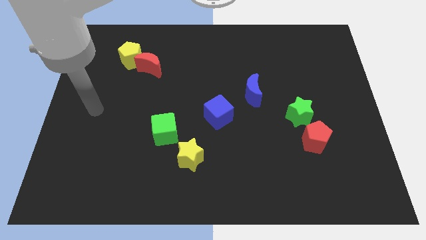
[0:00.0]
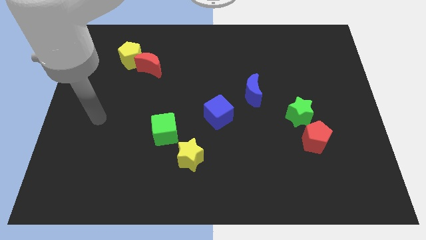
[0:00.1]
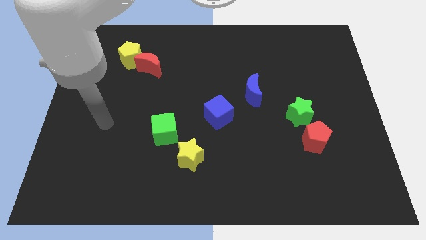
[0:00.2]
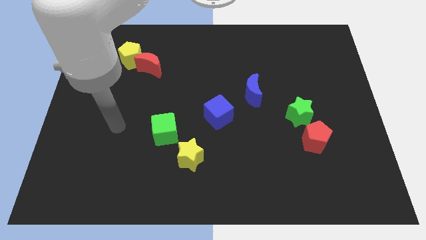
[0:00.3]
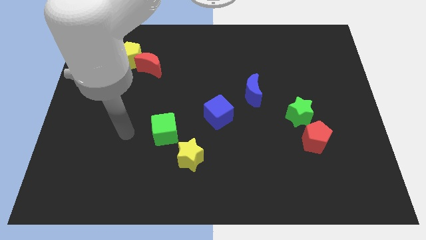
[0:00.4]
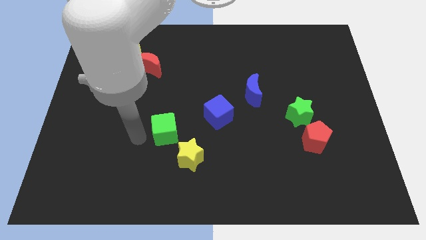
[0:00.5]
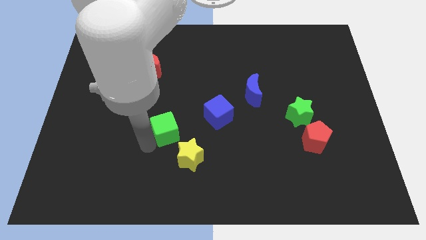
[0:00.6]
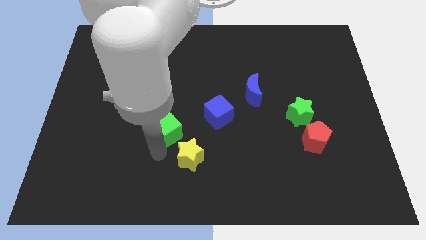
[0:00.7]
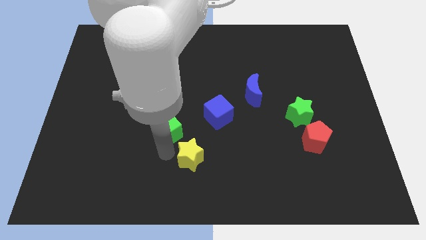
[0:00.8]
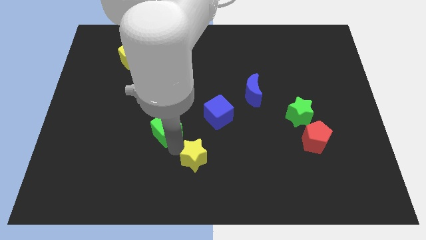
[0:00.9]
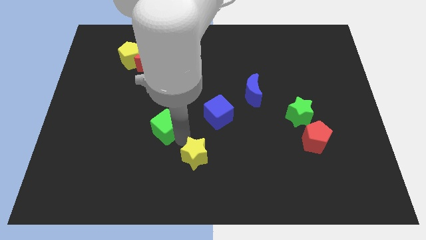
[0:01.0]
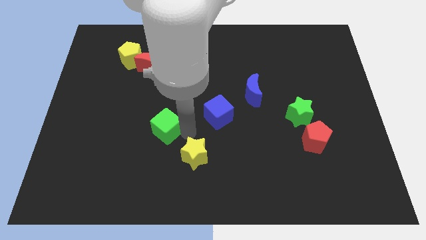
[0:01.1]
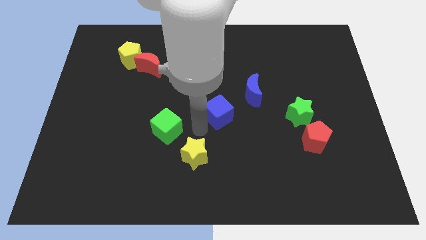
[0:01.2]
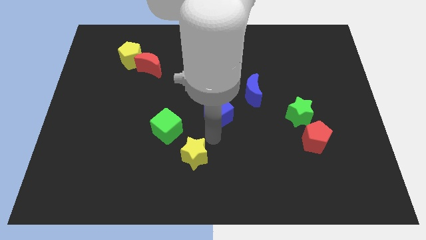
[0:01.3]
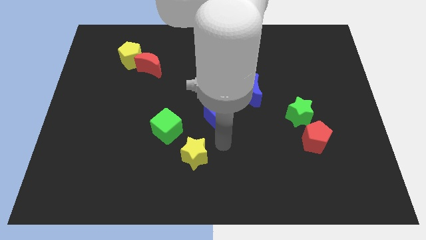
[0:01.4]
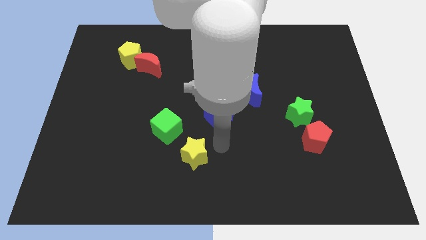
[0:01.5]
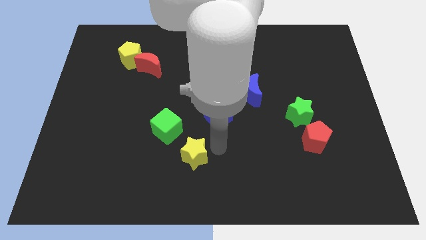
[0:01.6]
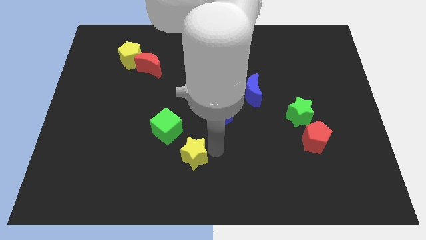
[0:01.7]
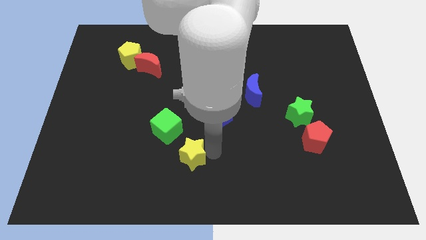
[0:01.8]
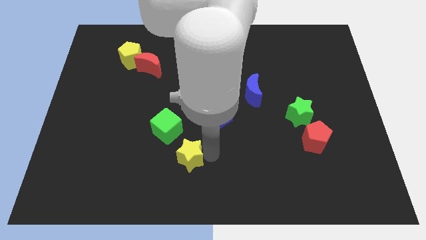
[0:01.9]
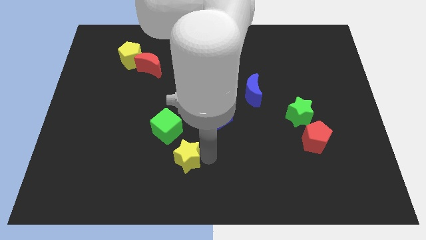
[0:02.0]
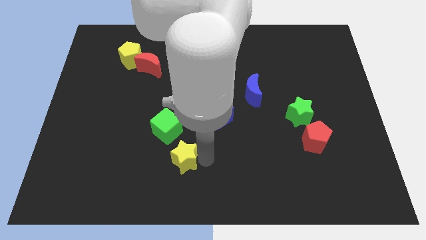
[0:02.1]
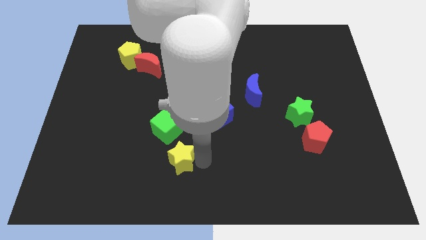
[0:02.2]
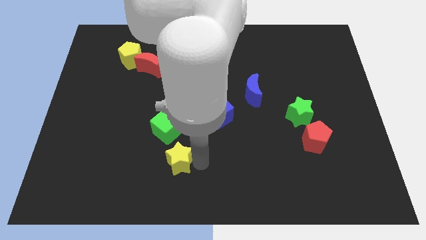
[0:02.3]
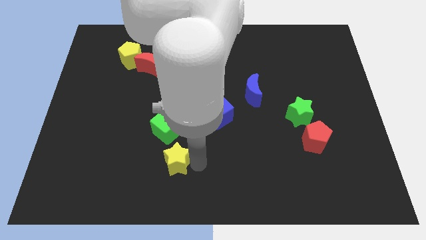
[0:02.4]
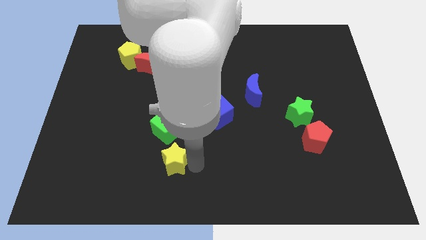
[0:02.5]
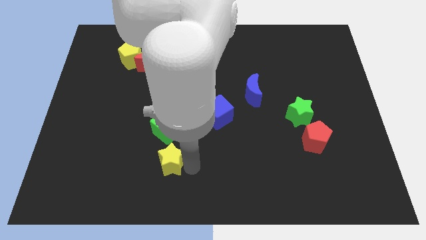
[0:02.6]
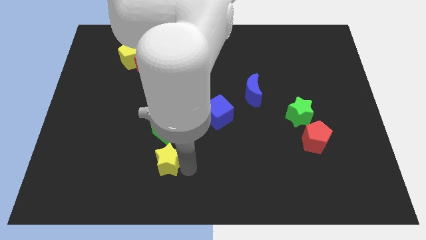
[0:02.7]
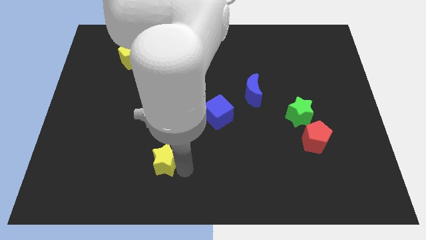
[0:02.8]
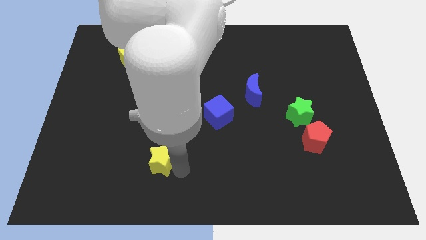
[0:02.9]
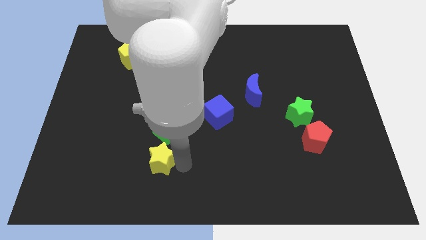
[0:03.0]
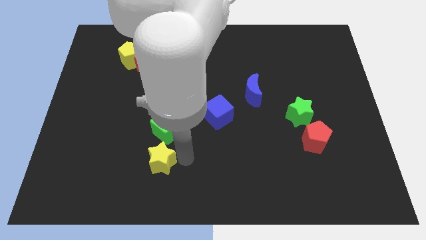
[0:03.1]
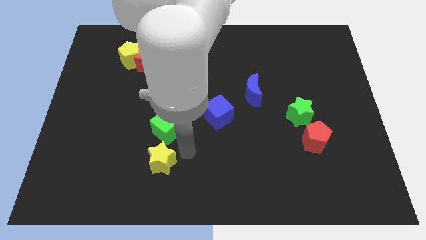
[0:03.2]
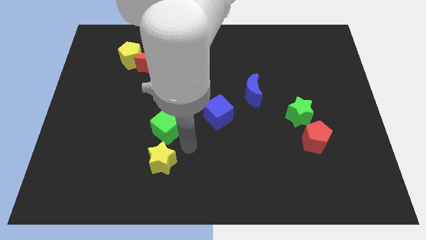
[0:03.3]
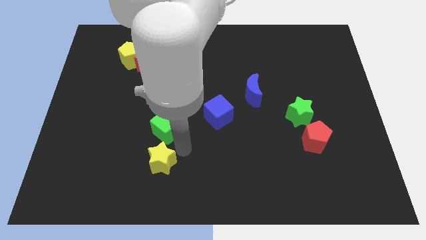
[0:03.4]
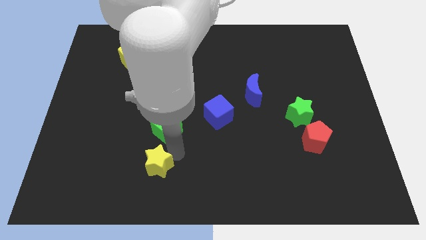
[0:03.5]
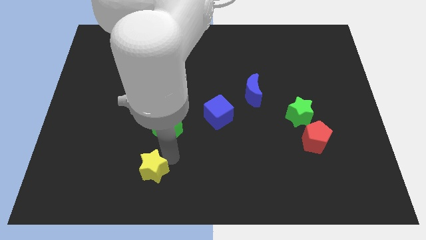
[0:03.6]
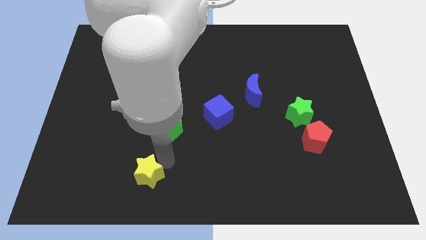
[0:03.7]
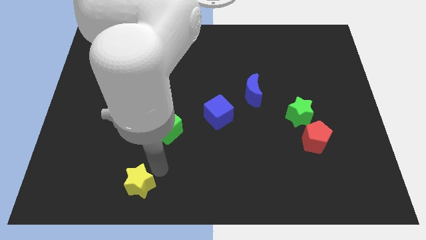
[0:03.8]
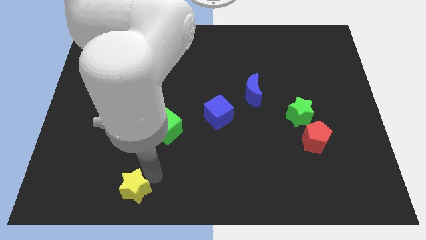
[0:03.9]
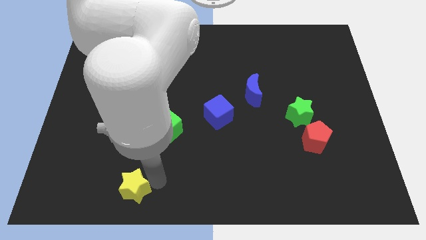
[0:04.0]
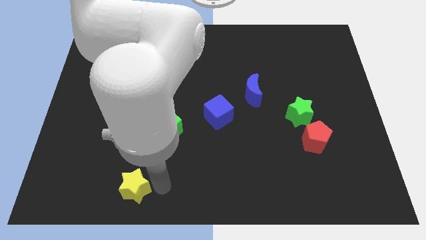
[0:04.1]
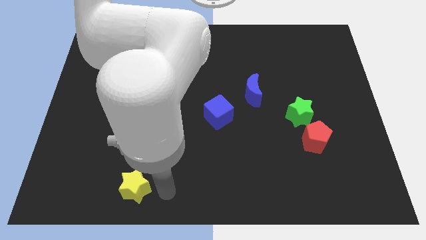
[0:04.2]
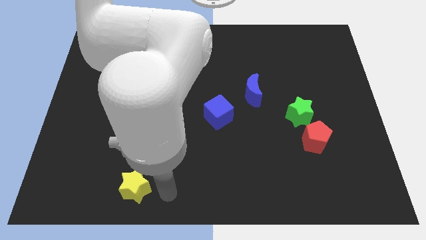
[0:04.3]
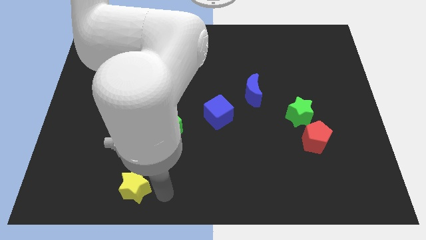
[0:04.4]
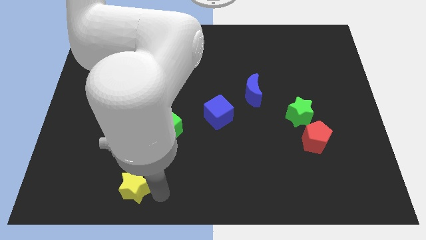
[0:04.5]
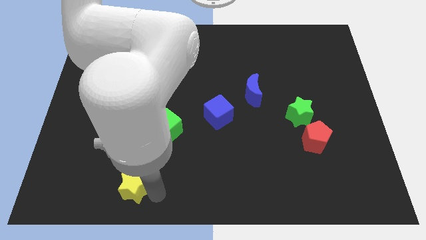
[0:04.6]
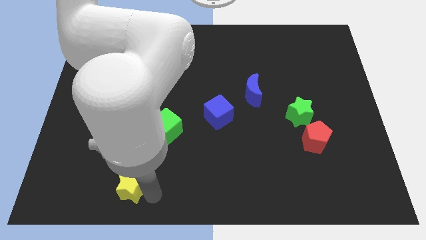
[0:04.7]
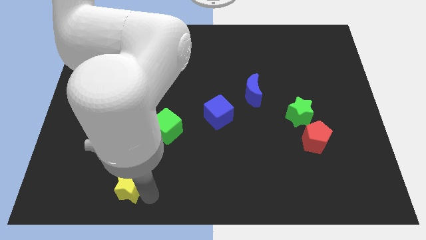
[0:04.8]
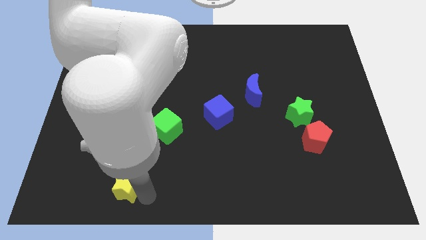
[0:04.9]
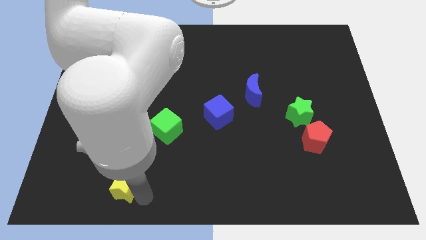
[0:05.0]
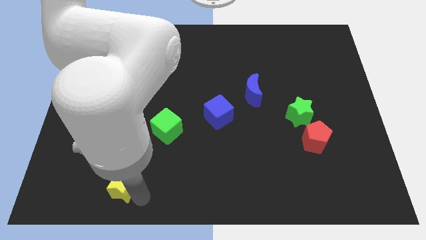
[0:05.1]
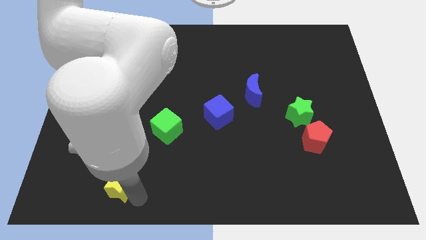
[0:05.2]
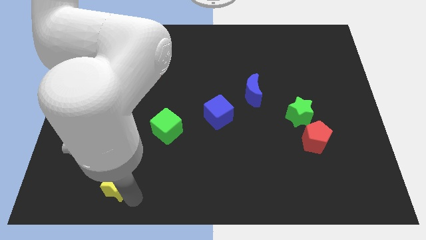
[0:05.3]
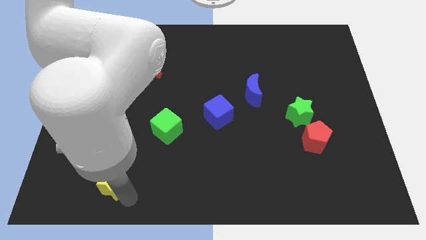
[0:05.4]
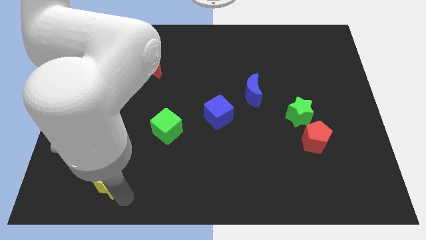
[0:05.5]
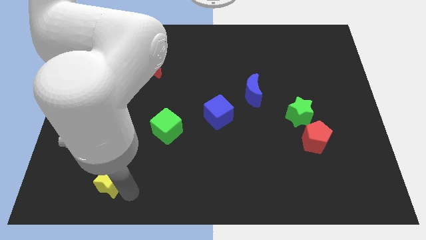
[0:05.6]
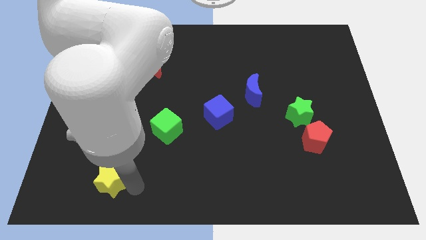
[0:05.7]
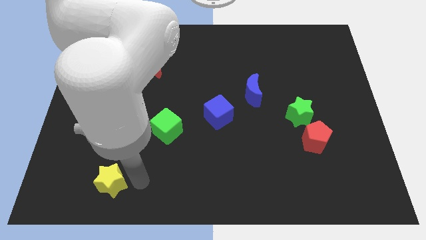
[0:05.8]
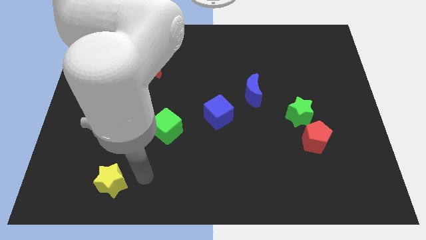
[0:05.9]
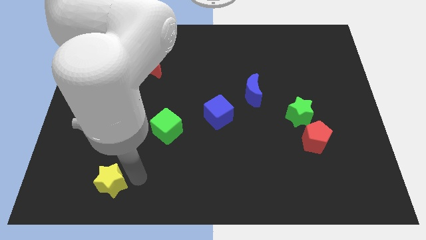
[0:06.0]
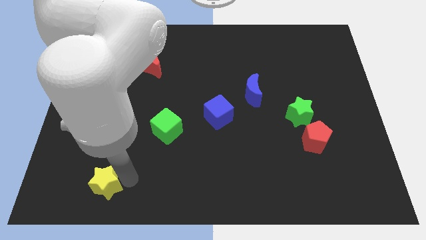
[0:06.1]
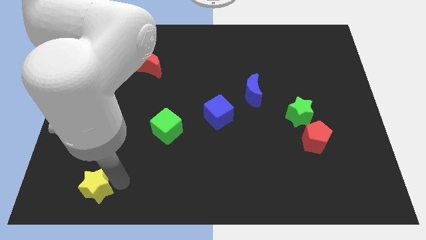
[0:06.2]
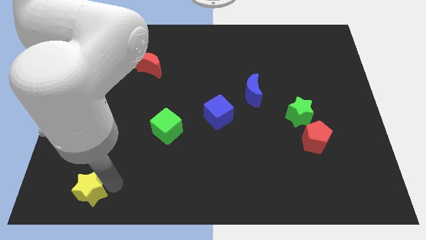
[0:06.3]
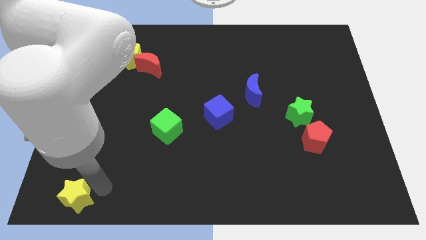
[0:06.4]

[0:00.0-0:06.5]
put the yellow star to the bottom left corner
